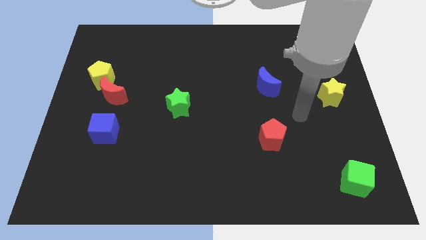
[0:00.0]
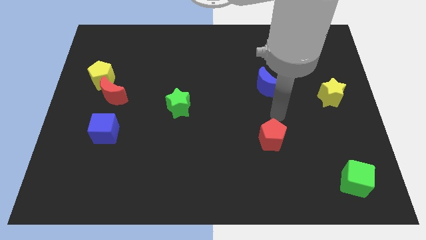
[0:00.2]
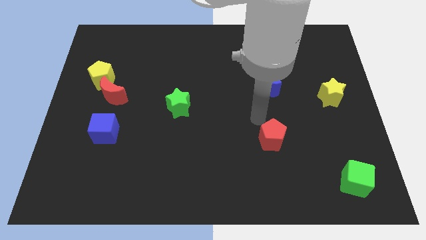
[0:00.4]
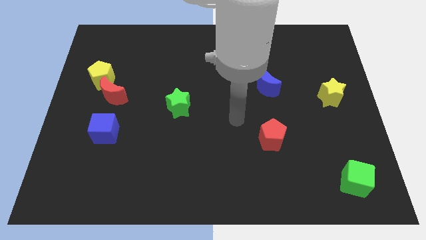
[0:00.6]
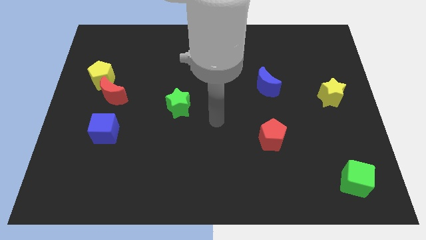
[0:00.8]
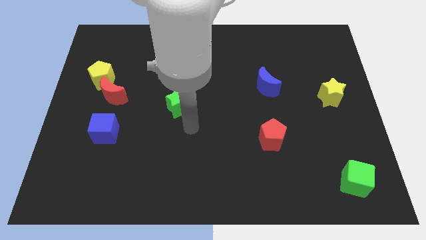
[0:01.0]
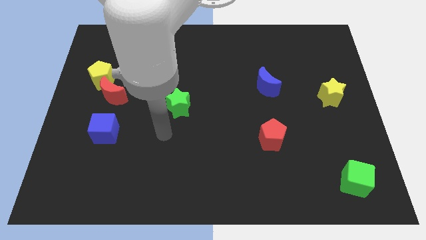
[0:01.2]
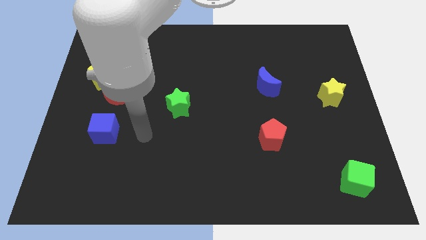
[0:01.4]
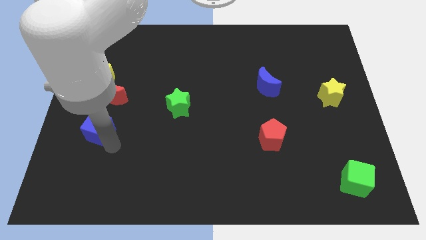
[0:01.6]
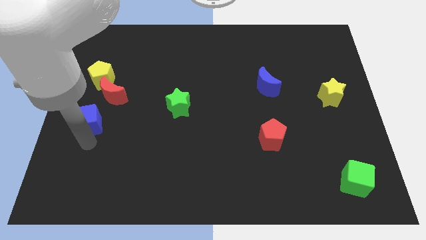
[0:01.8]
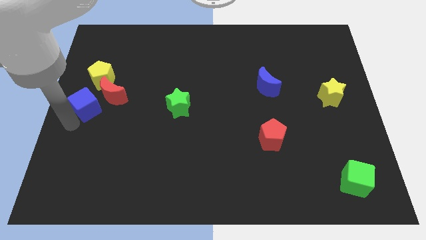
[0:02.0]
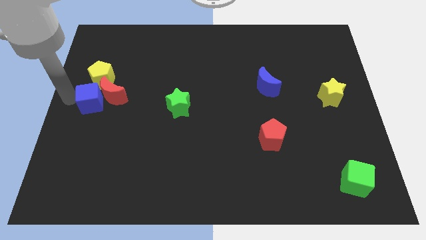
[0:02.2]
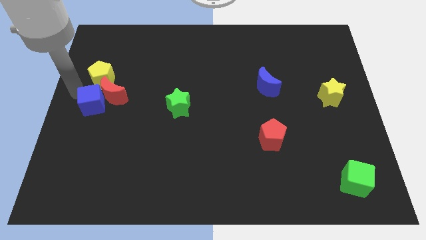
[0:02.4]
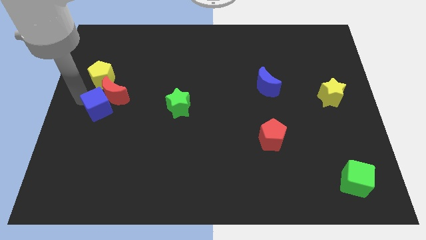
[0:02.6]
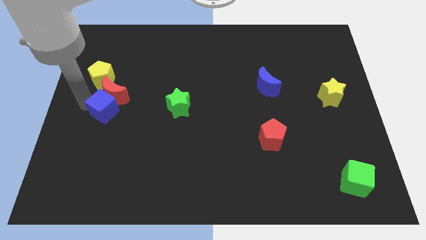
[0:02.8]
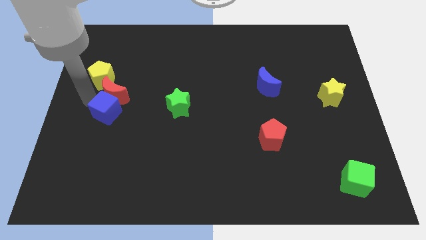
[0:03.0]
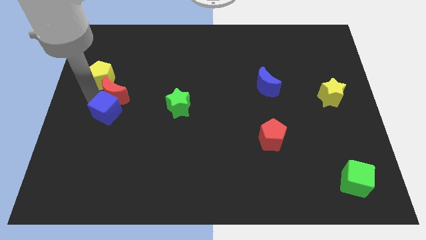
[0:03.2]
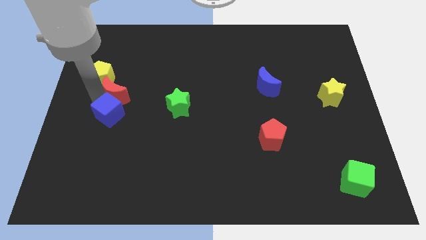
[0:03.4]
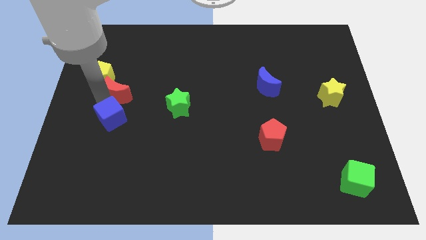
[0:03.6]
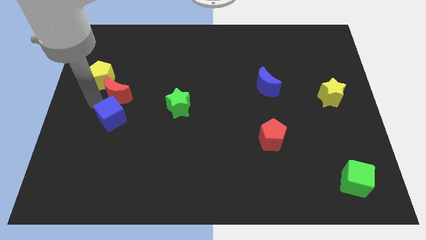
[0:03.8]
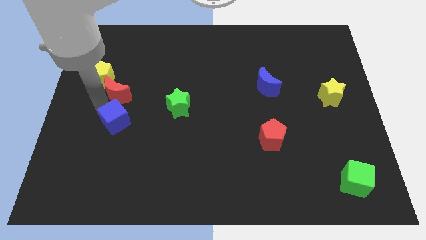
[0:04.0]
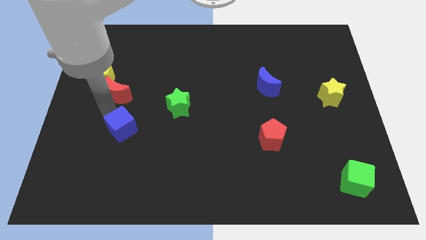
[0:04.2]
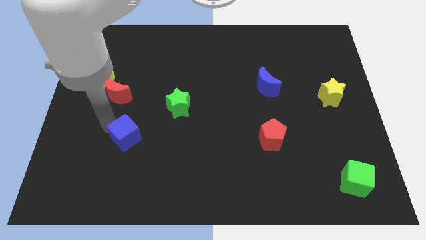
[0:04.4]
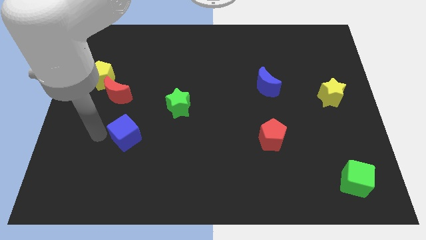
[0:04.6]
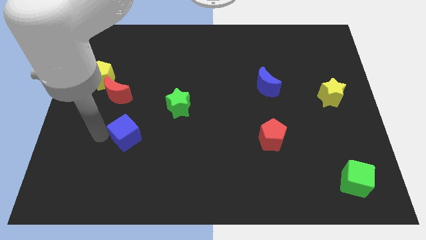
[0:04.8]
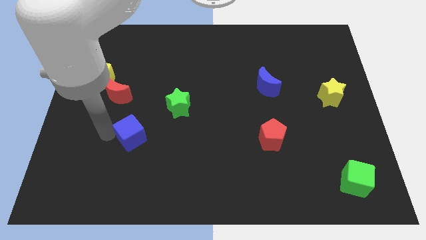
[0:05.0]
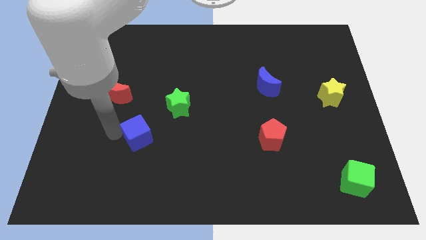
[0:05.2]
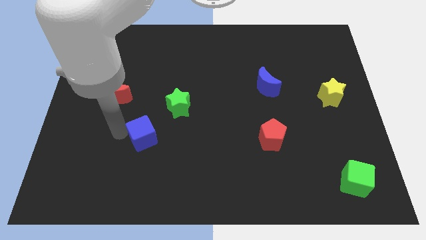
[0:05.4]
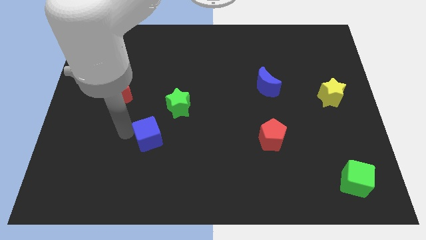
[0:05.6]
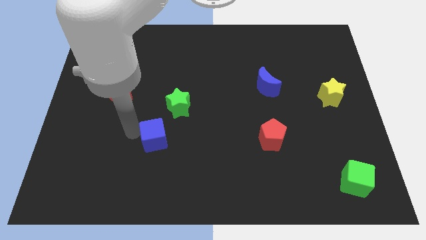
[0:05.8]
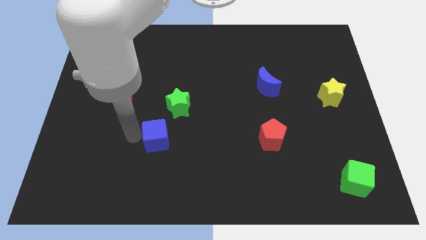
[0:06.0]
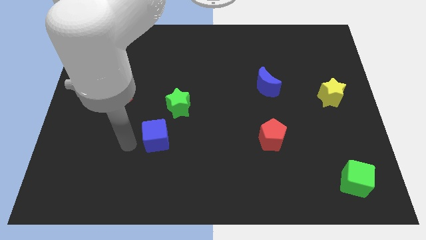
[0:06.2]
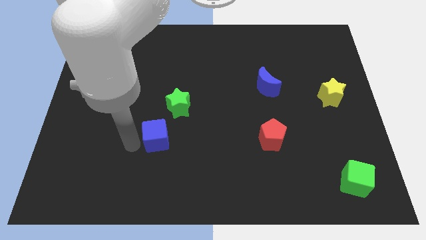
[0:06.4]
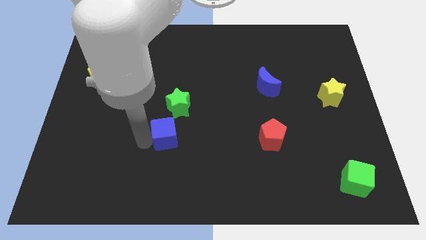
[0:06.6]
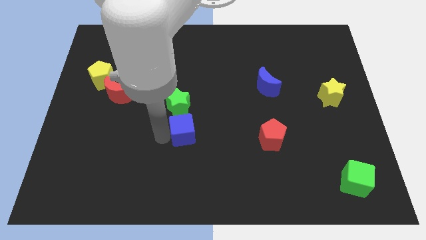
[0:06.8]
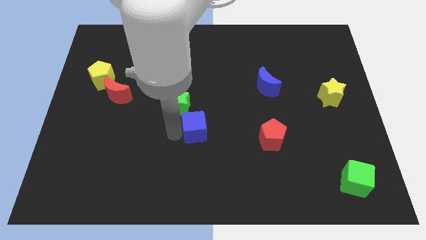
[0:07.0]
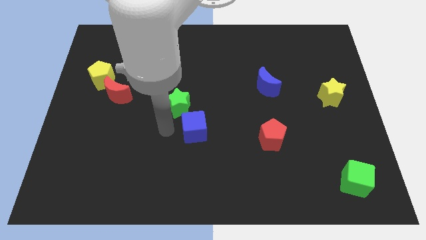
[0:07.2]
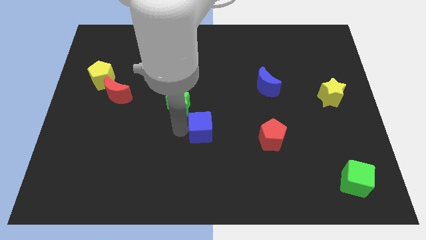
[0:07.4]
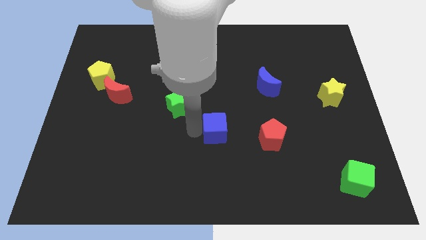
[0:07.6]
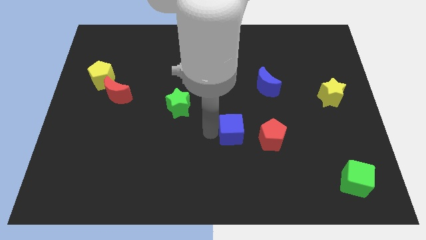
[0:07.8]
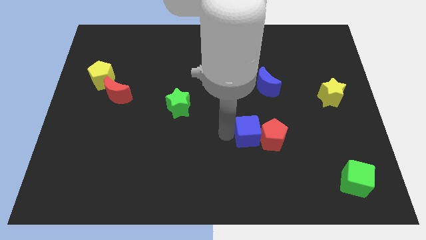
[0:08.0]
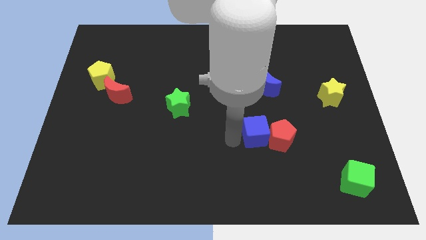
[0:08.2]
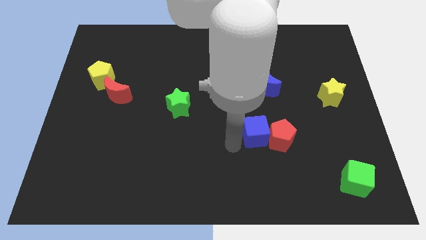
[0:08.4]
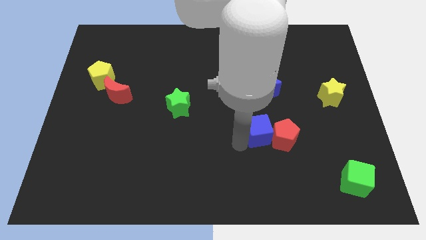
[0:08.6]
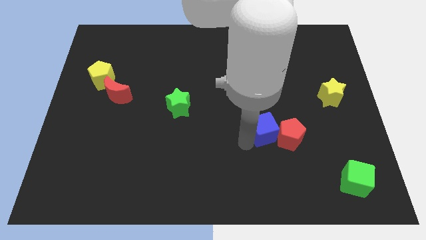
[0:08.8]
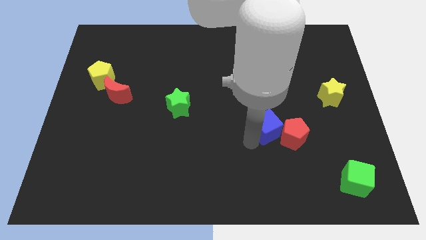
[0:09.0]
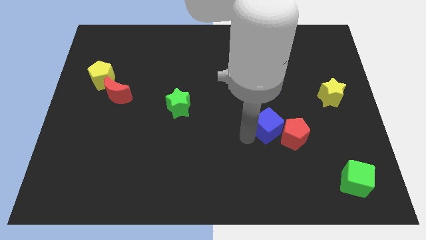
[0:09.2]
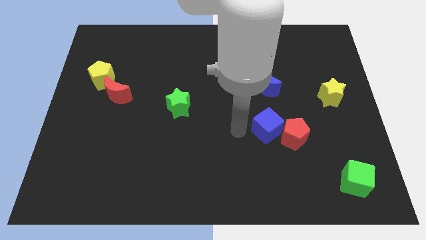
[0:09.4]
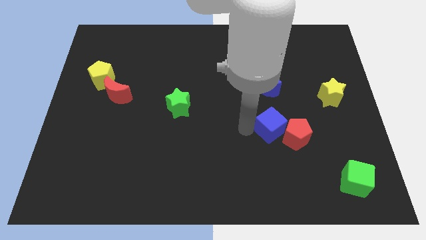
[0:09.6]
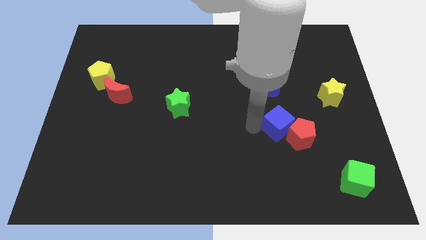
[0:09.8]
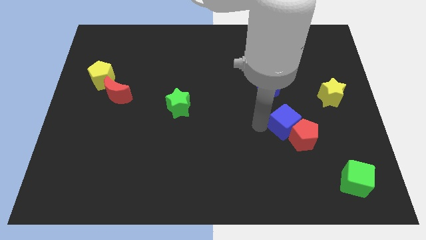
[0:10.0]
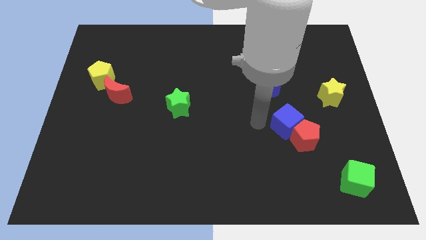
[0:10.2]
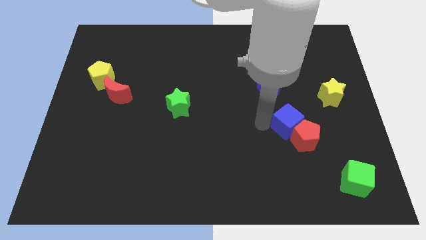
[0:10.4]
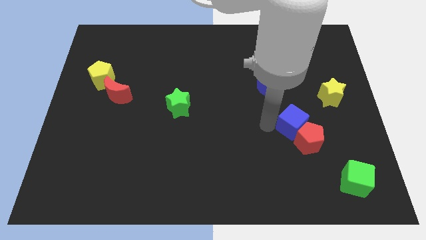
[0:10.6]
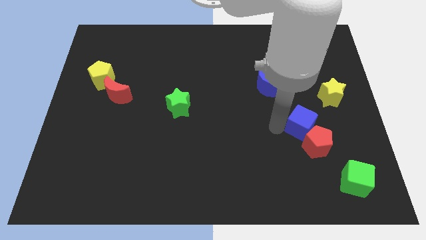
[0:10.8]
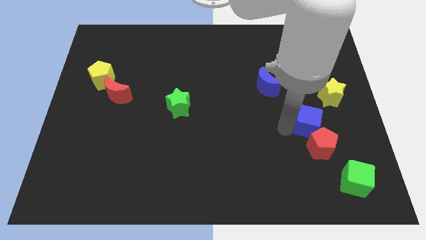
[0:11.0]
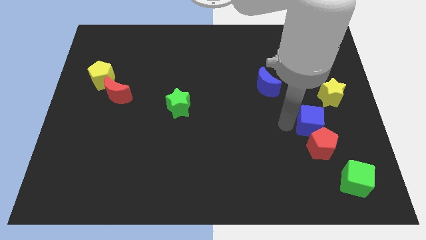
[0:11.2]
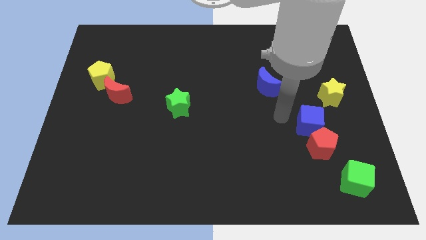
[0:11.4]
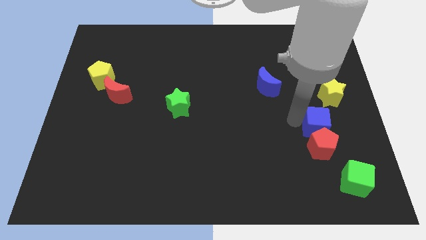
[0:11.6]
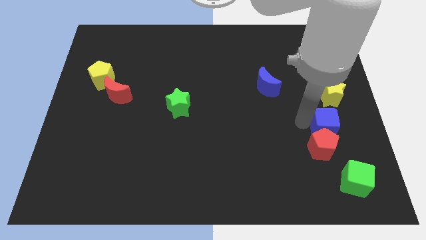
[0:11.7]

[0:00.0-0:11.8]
put the blue cube to the bottom of the yellow star

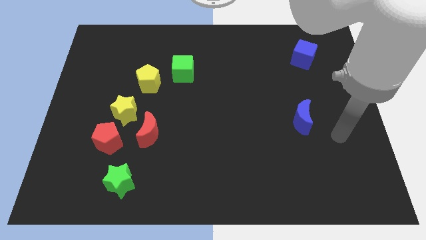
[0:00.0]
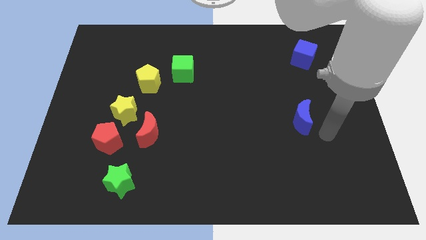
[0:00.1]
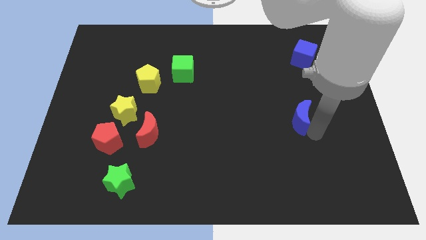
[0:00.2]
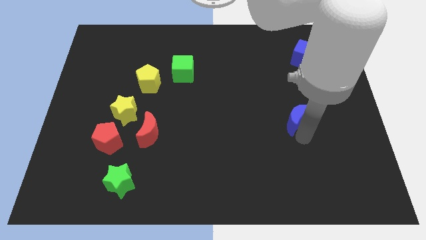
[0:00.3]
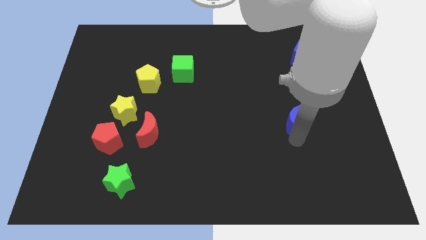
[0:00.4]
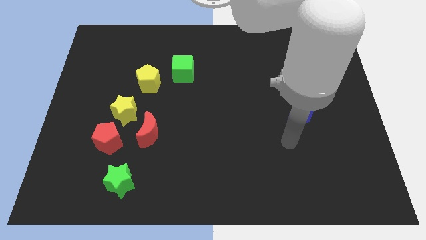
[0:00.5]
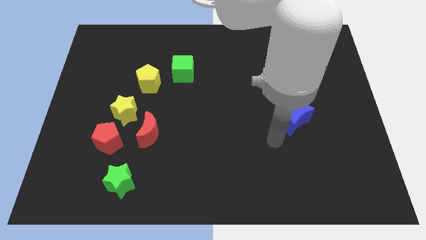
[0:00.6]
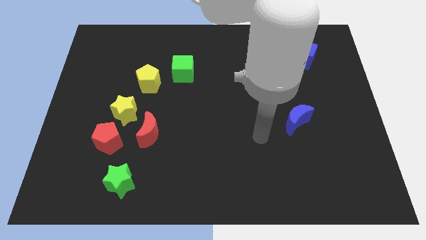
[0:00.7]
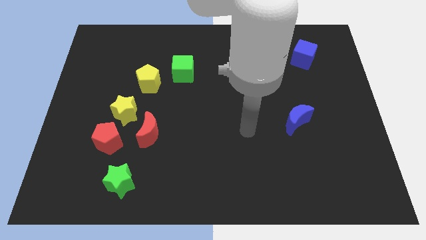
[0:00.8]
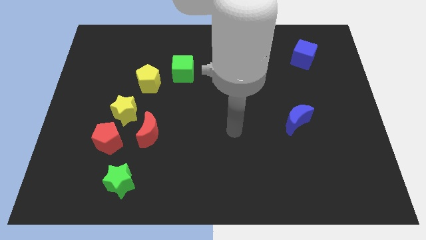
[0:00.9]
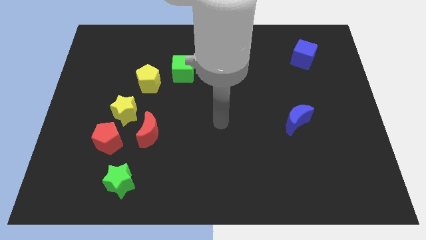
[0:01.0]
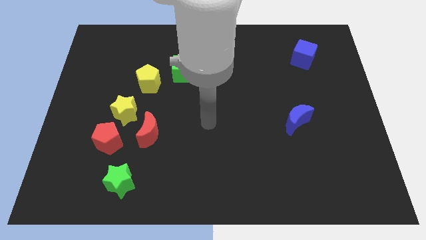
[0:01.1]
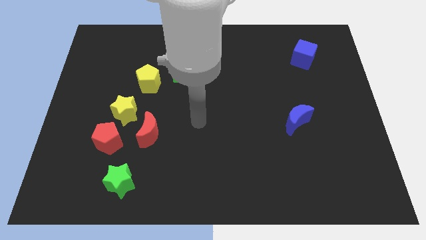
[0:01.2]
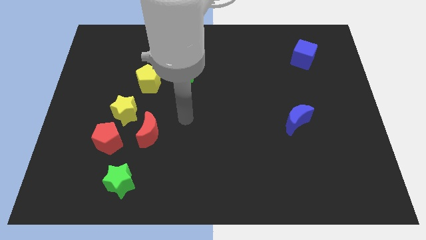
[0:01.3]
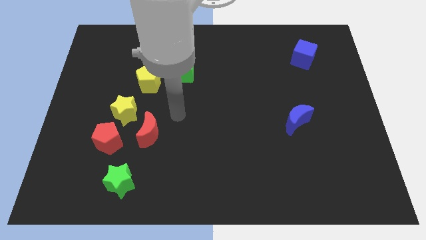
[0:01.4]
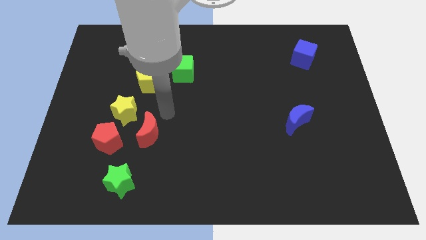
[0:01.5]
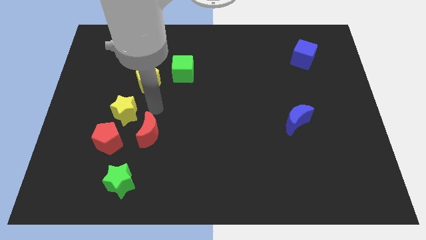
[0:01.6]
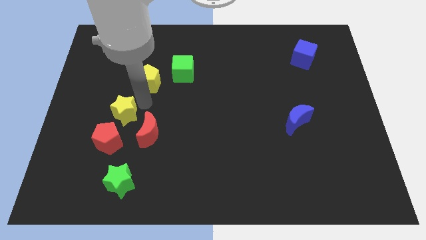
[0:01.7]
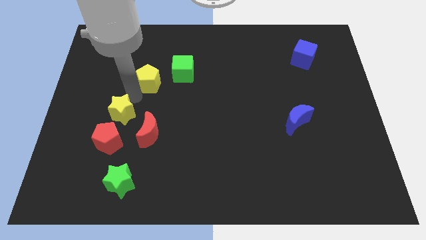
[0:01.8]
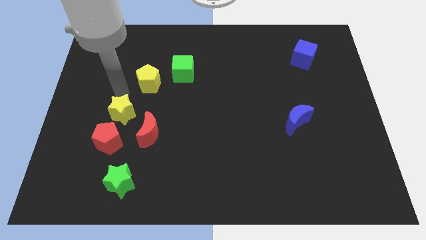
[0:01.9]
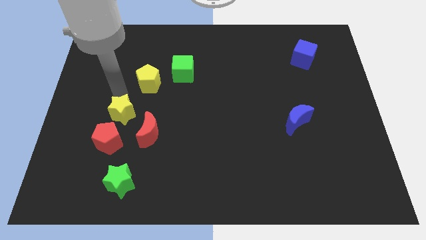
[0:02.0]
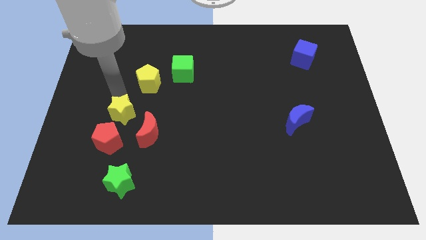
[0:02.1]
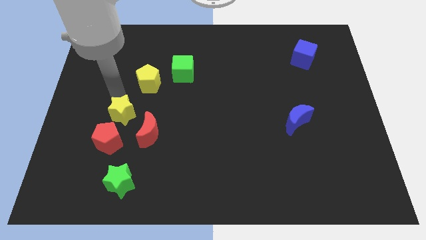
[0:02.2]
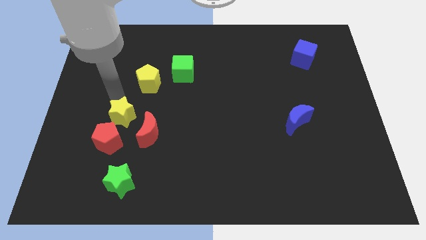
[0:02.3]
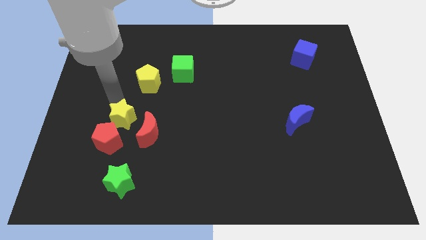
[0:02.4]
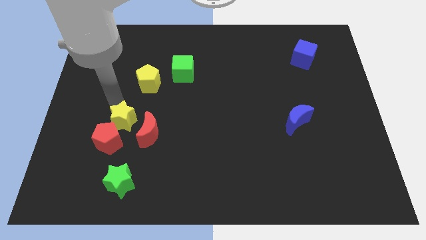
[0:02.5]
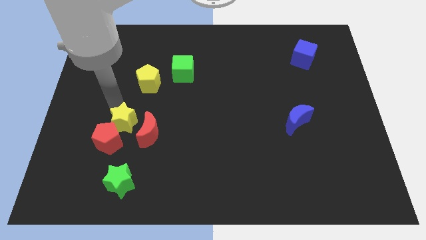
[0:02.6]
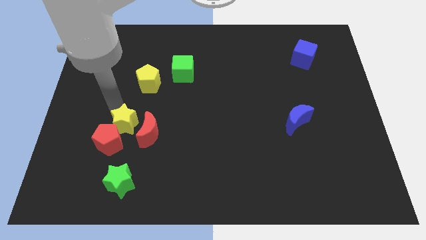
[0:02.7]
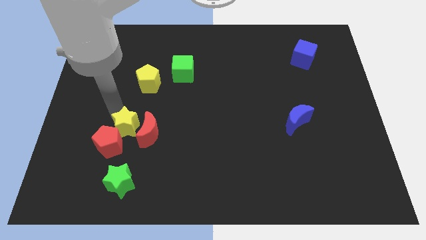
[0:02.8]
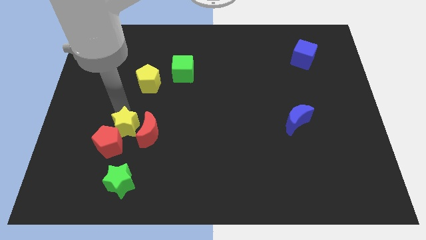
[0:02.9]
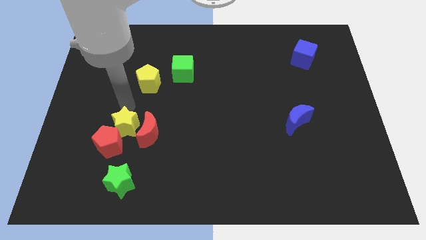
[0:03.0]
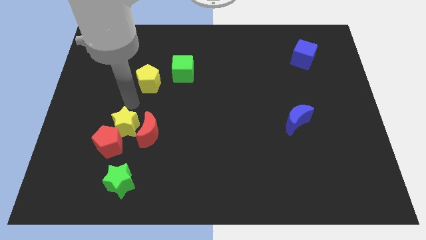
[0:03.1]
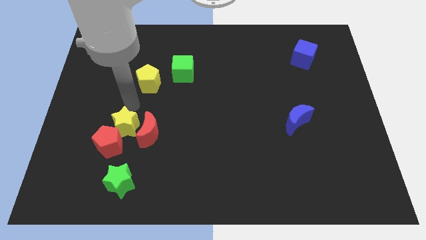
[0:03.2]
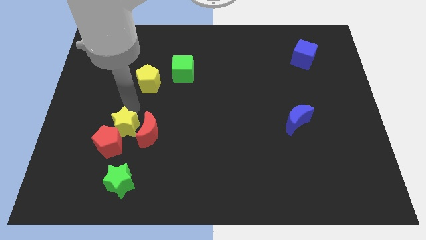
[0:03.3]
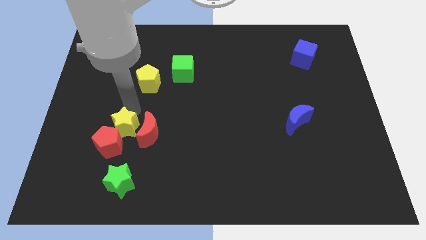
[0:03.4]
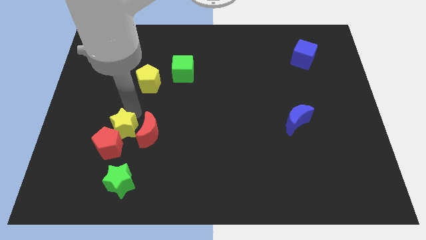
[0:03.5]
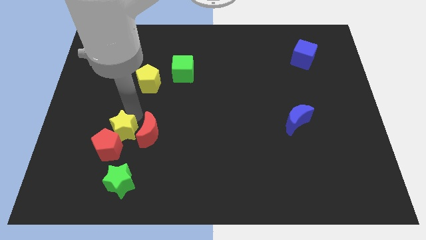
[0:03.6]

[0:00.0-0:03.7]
push the yellow star diagonally down and to the left of the red moon
